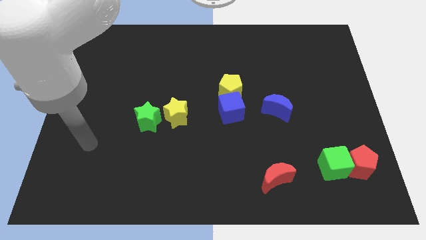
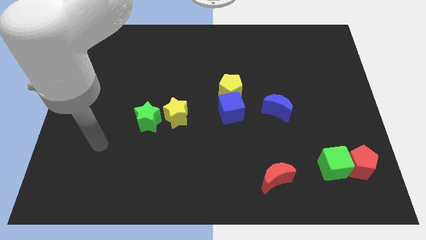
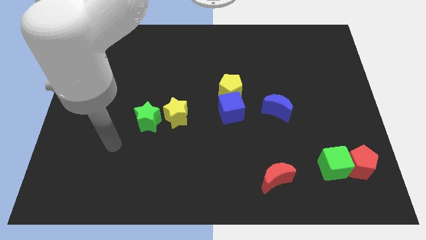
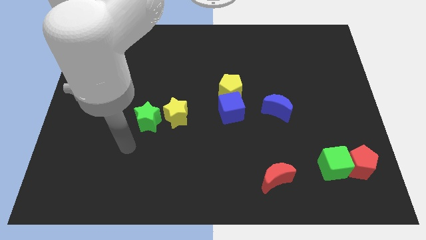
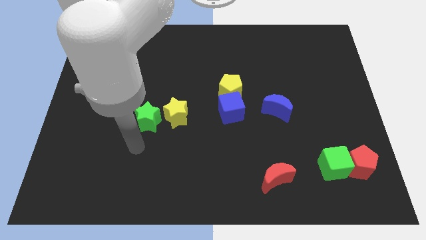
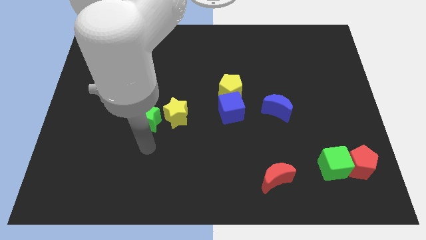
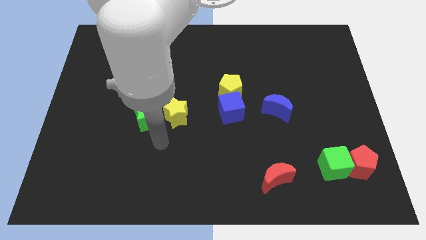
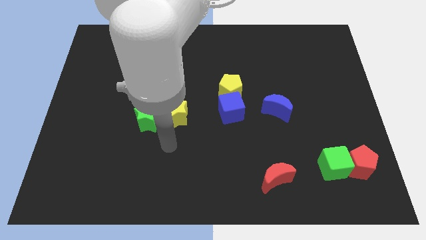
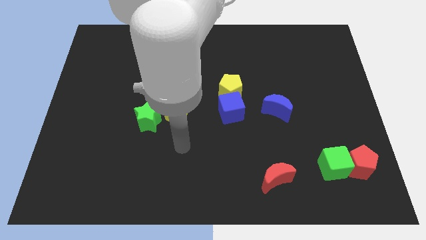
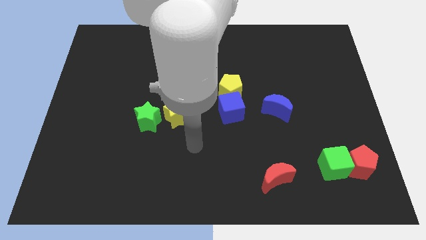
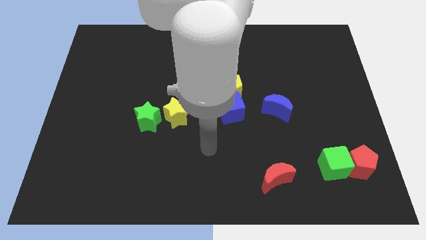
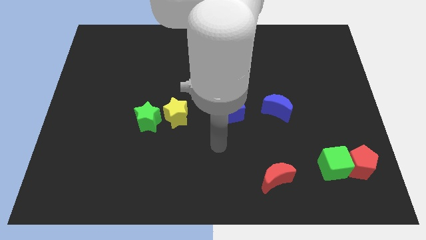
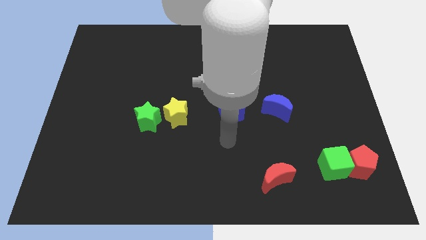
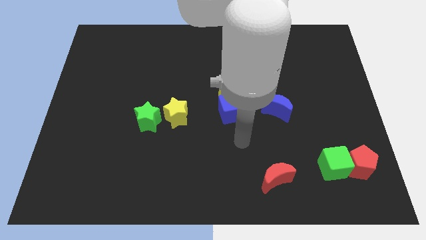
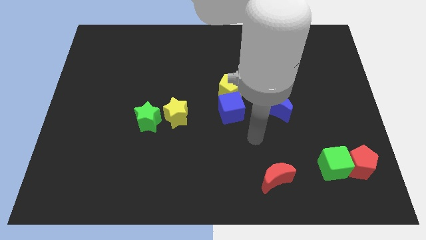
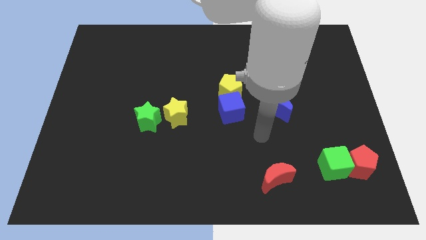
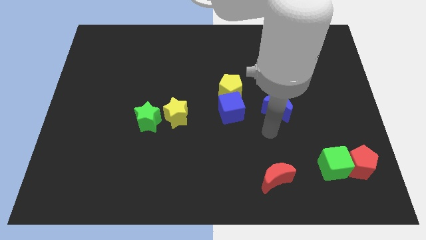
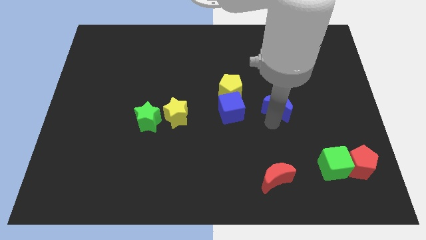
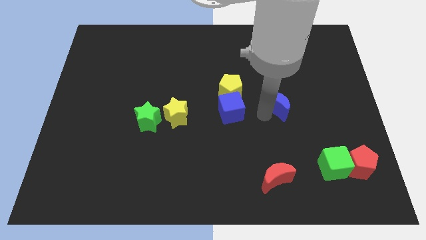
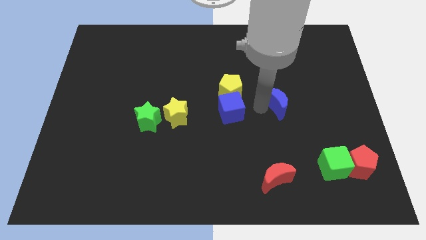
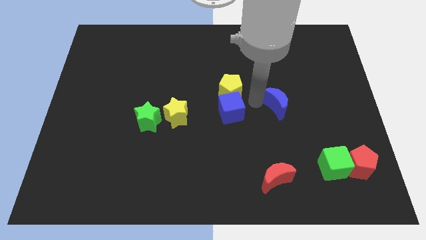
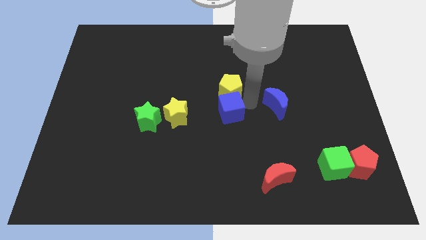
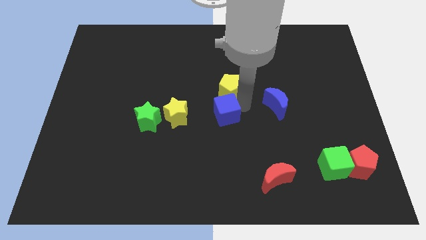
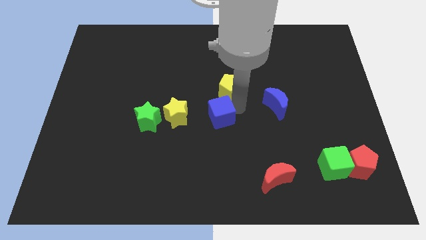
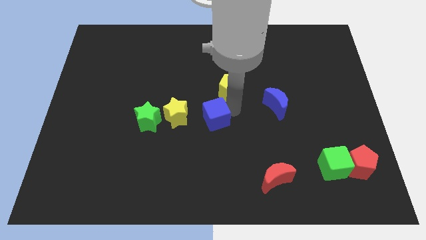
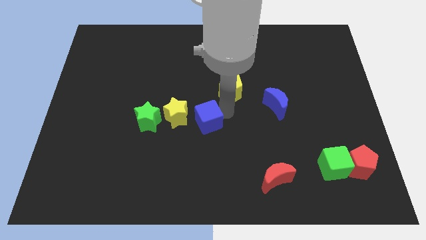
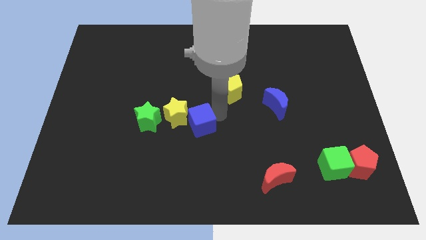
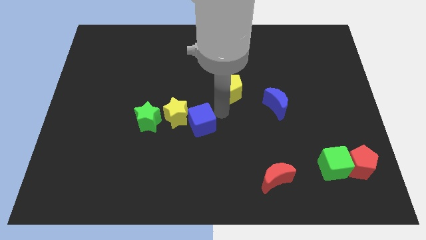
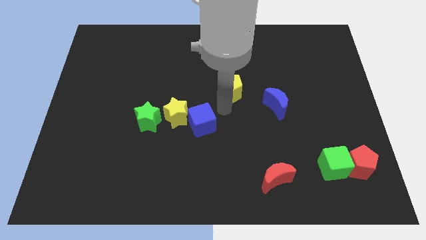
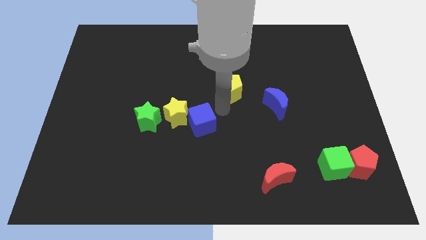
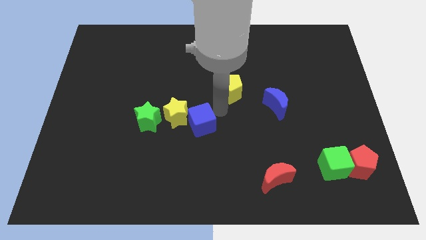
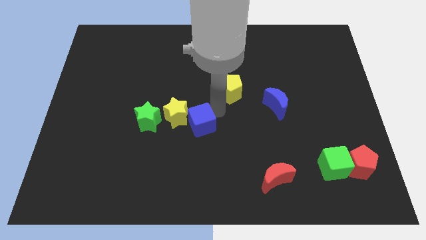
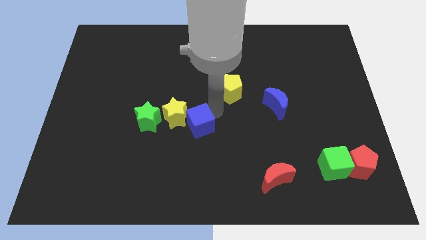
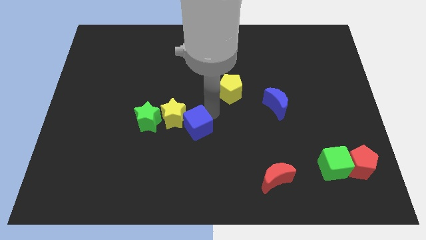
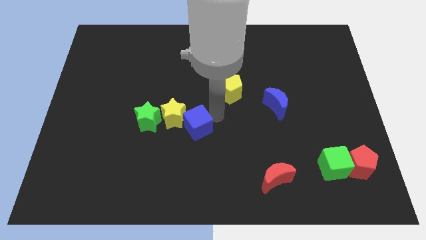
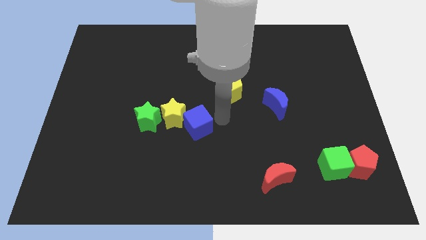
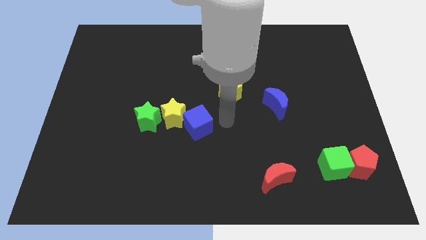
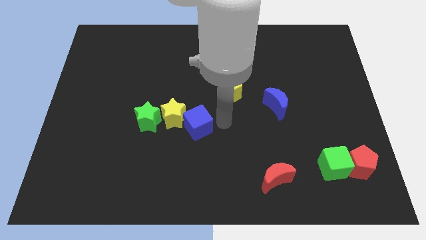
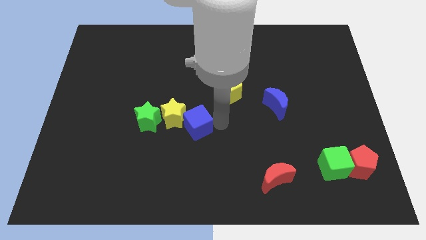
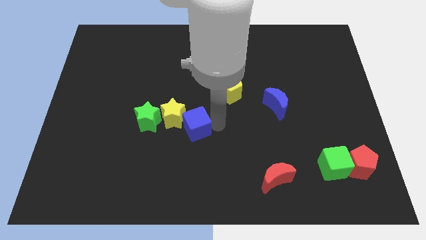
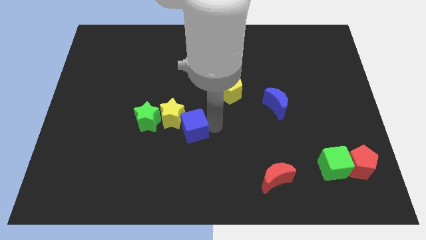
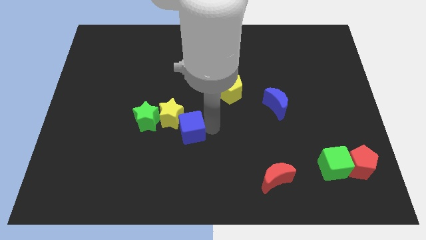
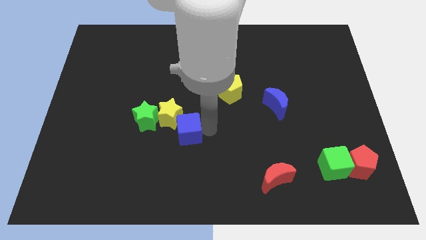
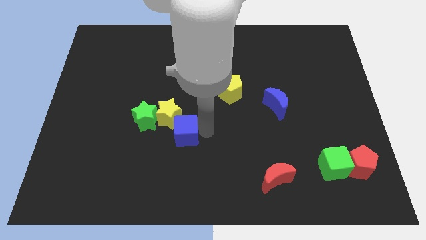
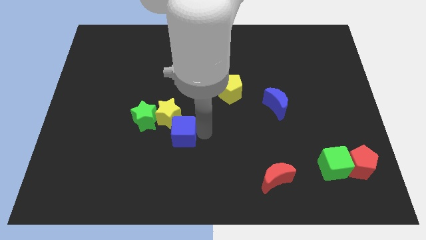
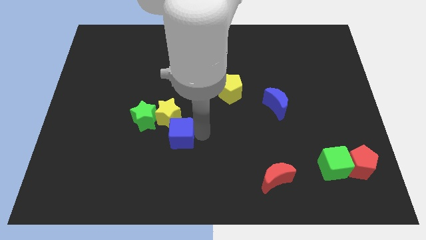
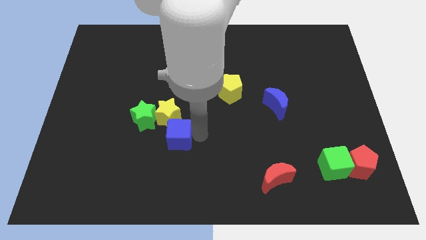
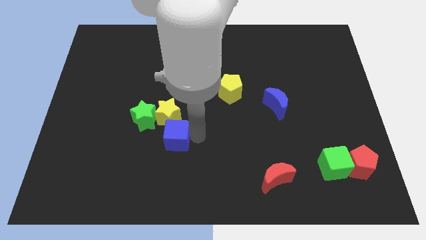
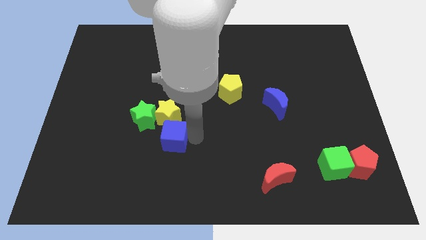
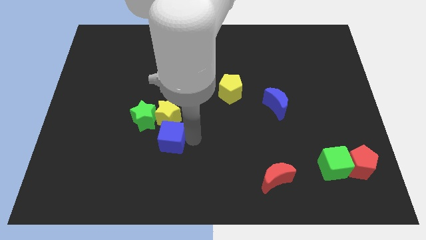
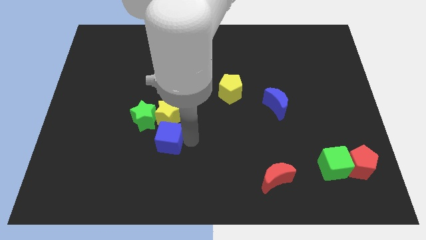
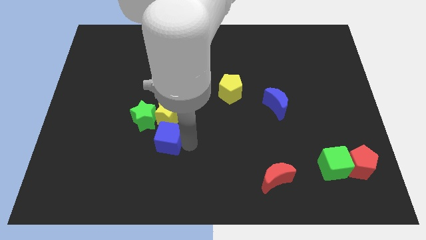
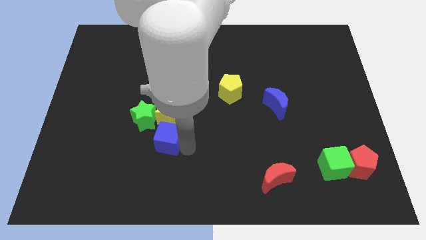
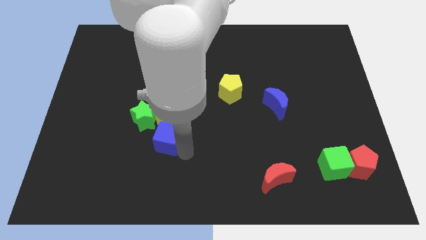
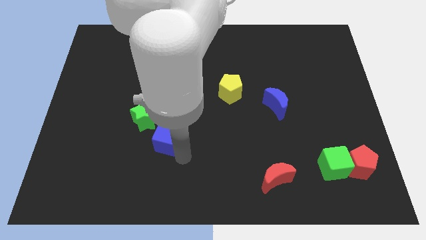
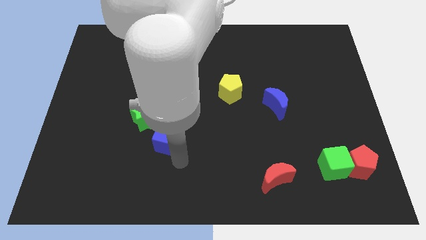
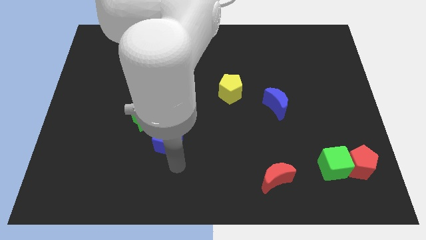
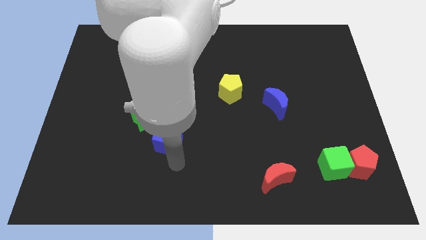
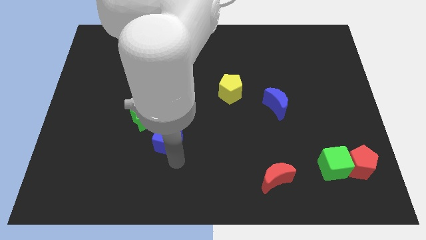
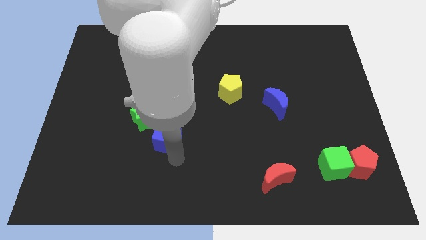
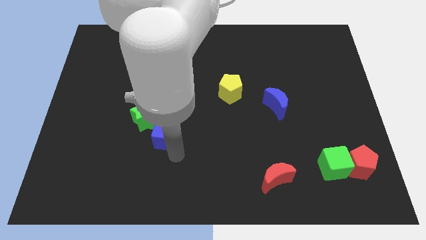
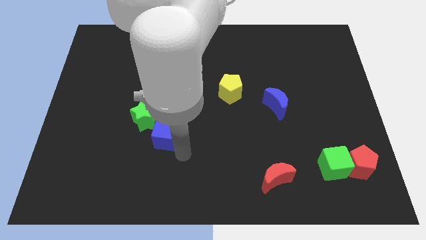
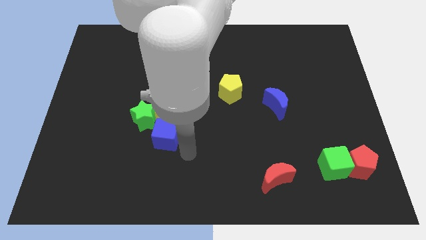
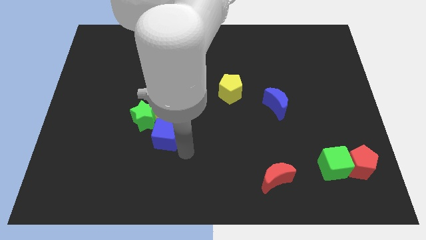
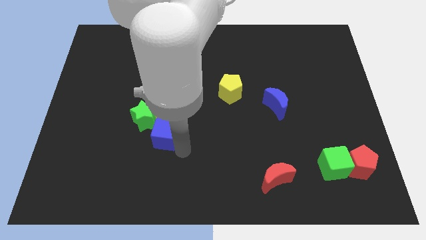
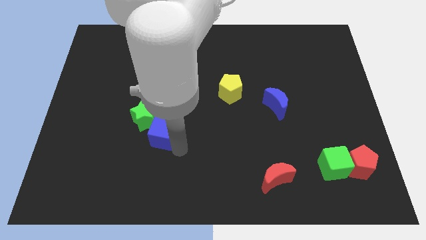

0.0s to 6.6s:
slide the blue cube towards the green star

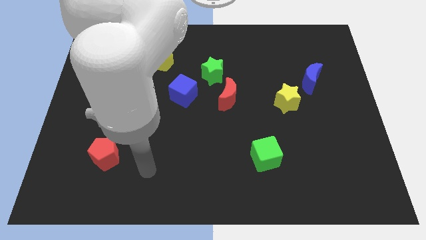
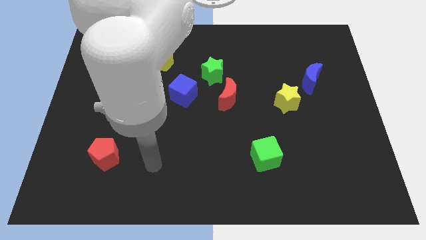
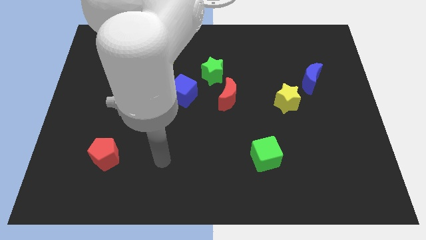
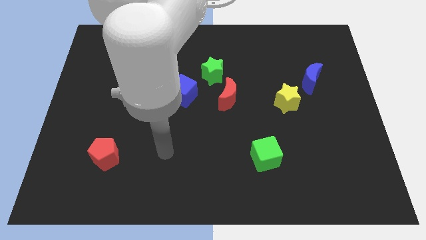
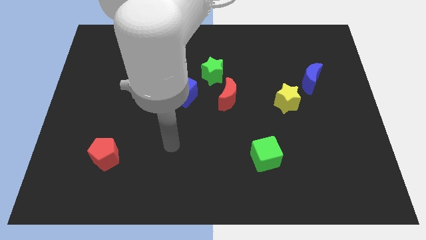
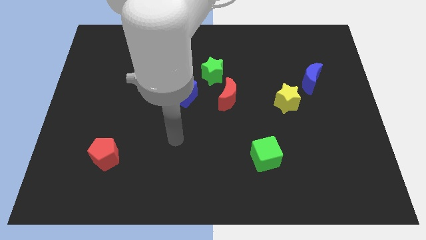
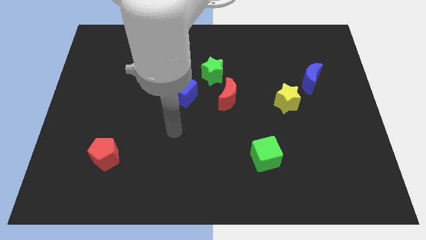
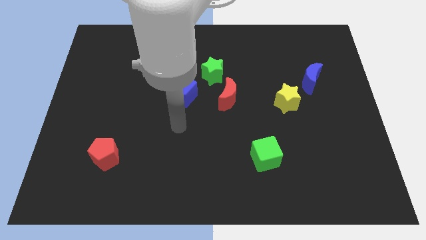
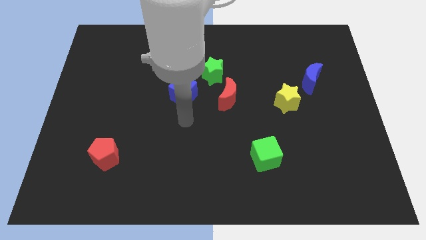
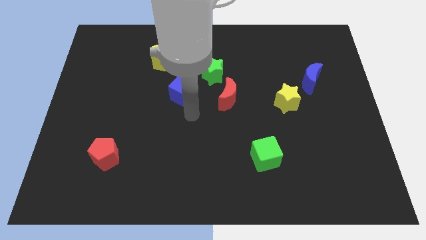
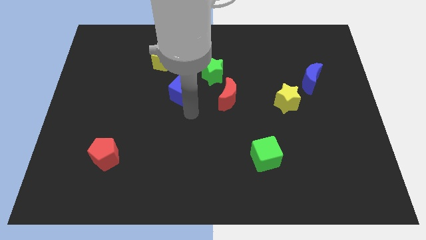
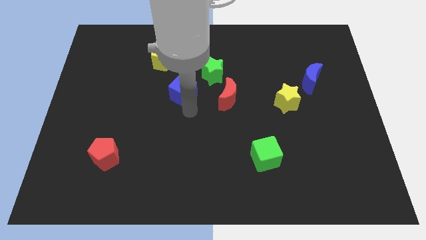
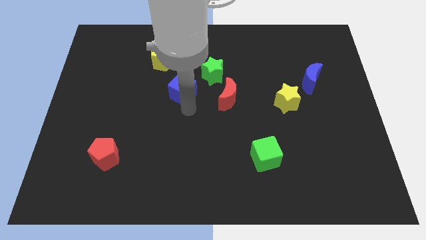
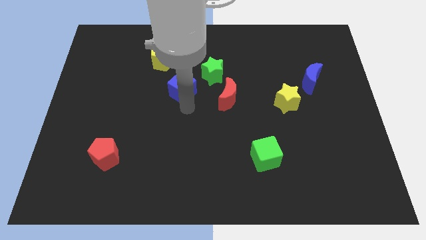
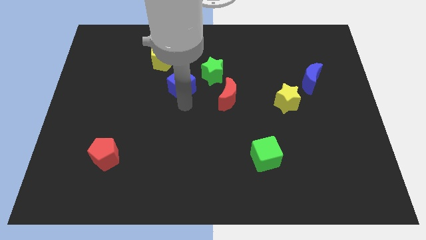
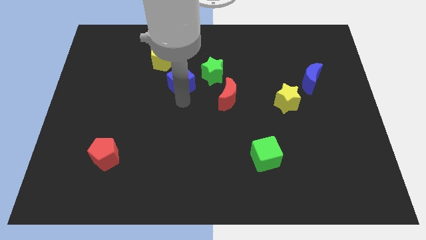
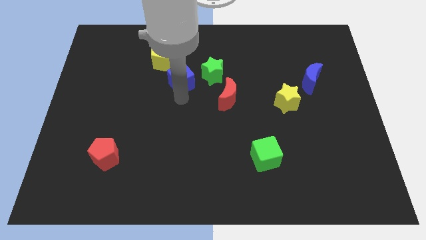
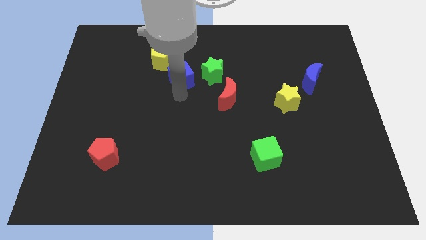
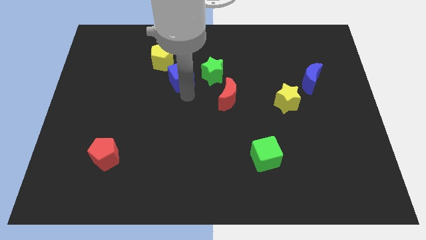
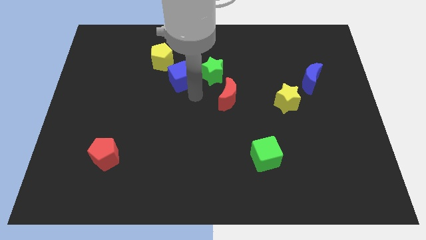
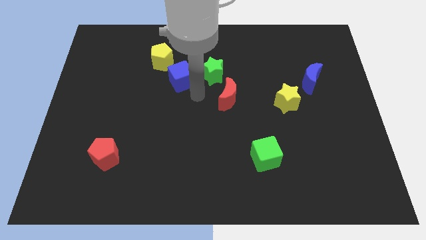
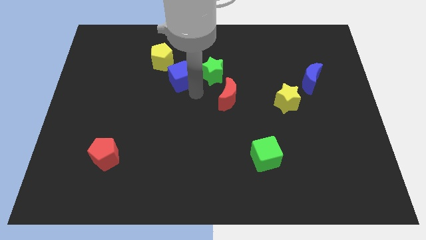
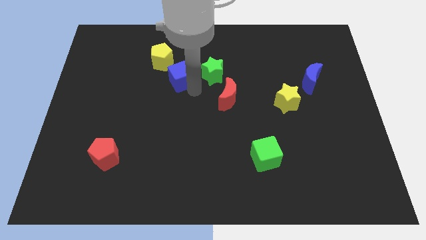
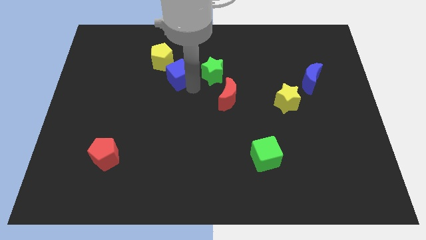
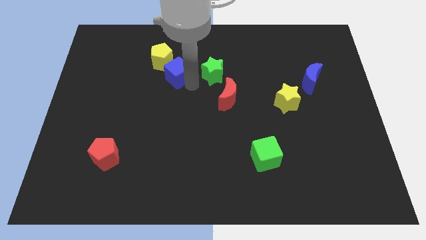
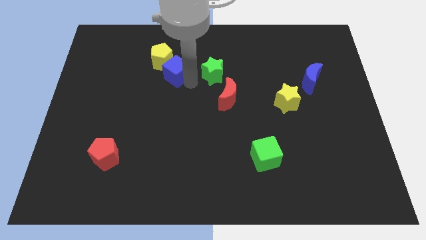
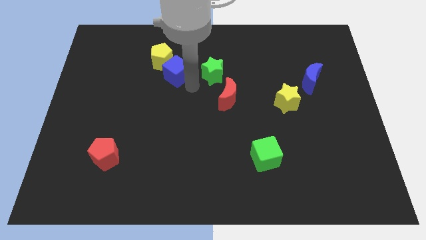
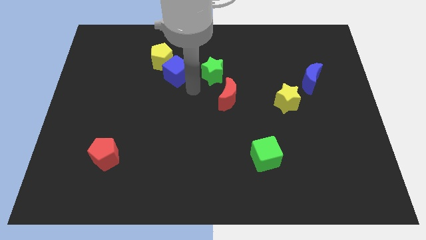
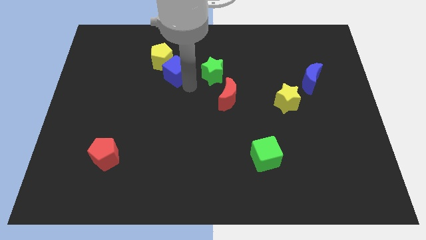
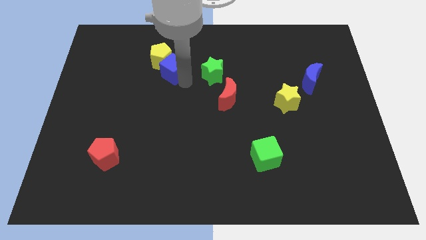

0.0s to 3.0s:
move the blue cube close to the yellow pentagon
